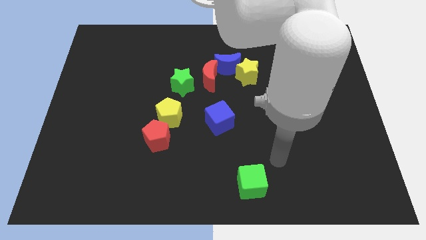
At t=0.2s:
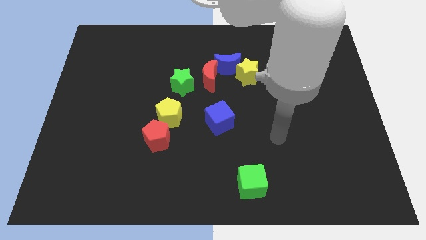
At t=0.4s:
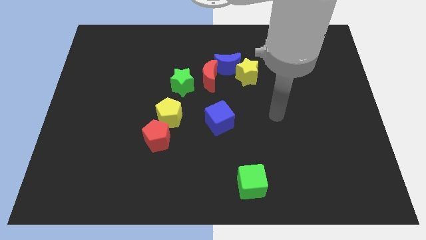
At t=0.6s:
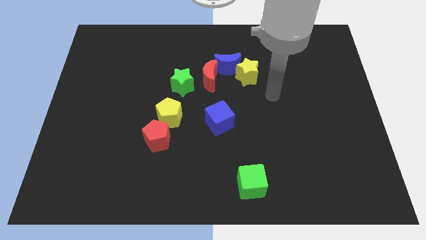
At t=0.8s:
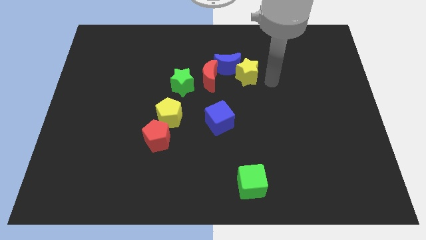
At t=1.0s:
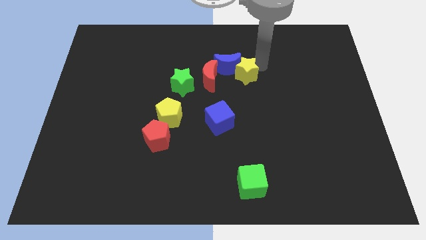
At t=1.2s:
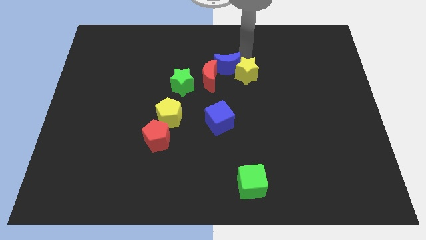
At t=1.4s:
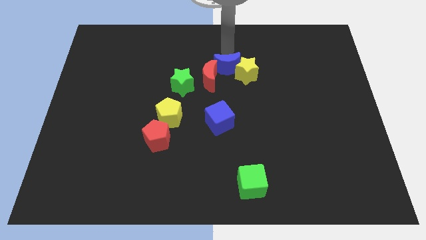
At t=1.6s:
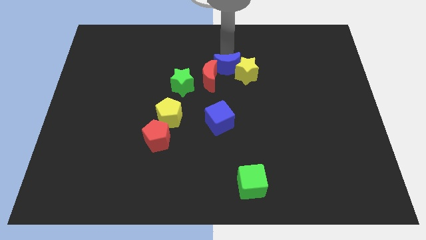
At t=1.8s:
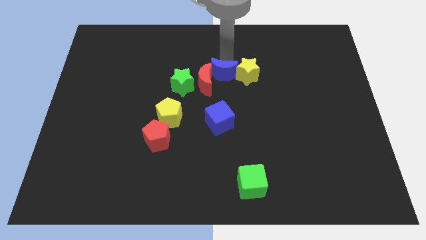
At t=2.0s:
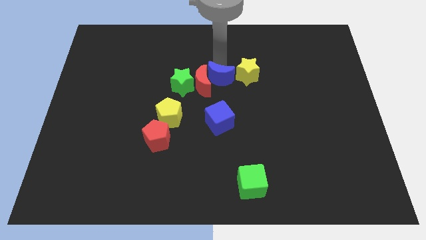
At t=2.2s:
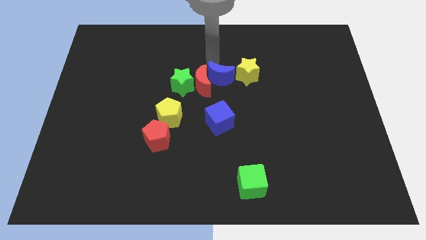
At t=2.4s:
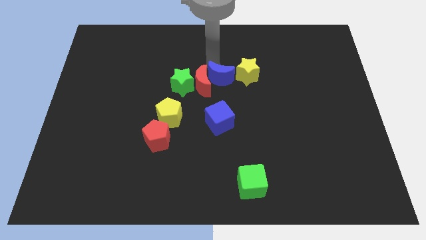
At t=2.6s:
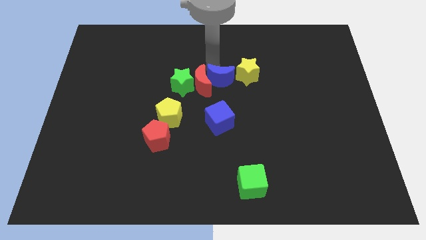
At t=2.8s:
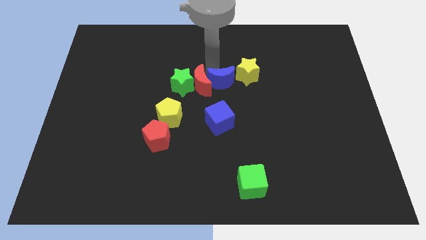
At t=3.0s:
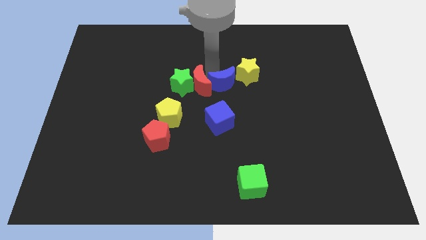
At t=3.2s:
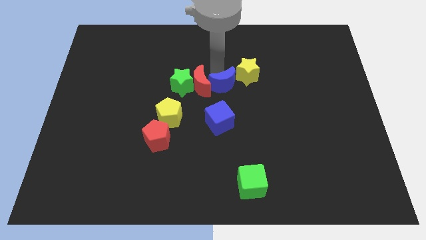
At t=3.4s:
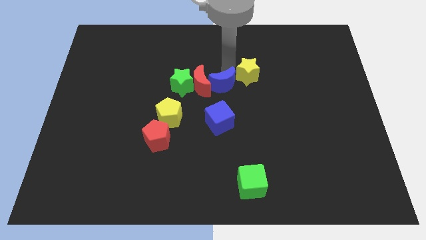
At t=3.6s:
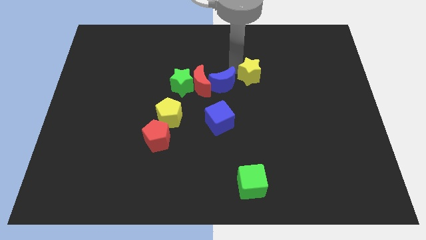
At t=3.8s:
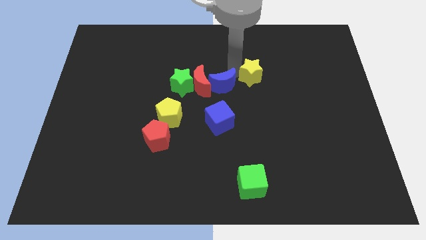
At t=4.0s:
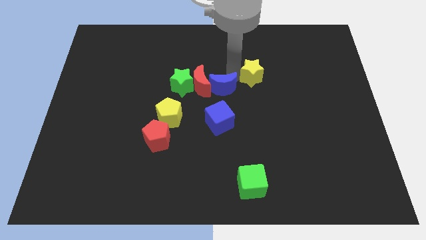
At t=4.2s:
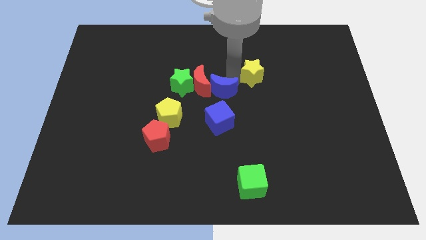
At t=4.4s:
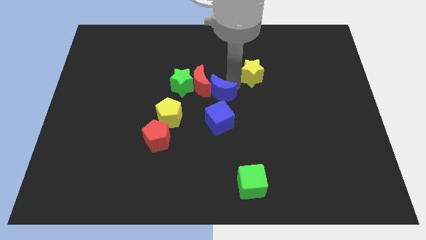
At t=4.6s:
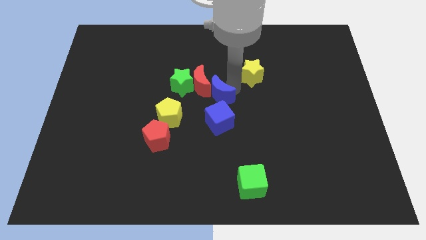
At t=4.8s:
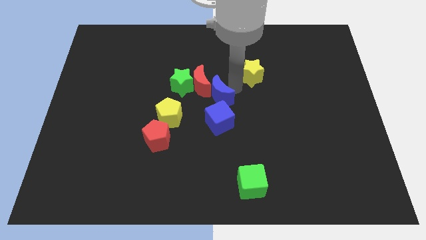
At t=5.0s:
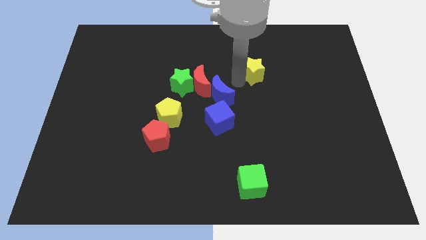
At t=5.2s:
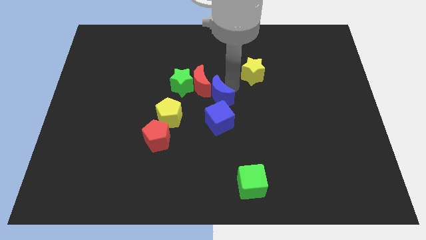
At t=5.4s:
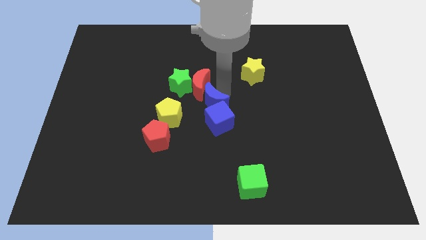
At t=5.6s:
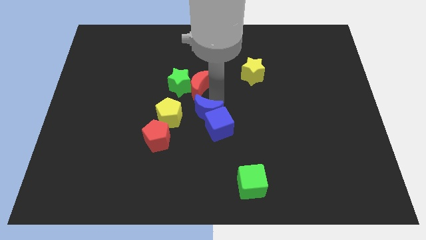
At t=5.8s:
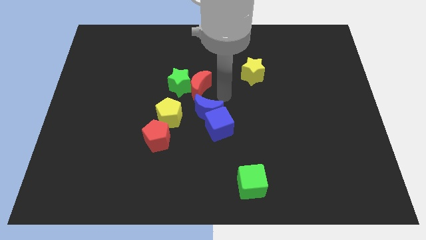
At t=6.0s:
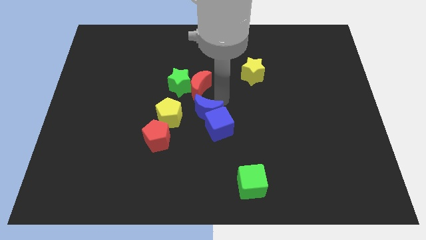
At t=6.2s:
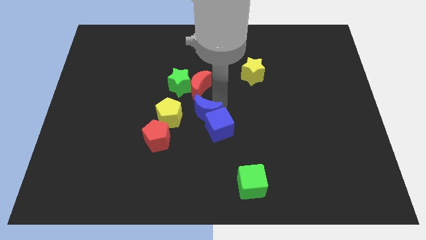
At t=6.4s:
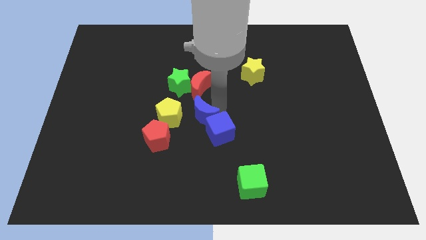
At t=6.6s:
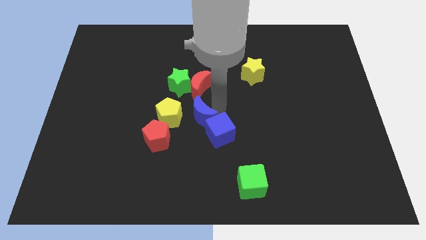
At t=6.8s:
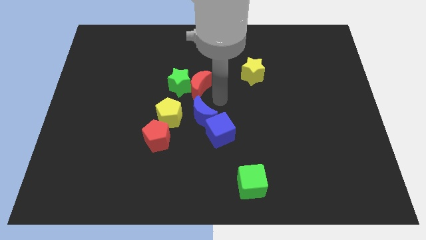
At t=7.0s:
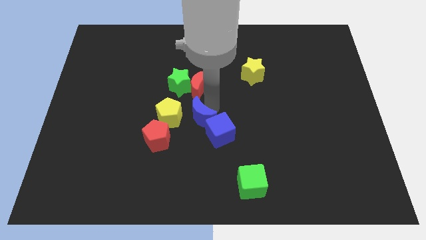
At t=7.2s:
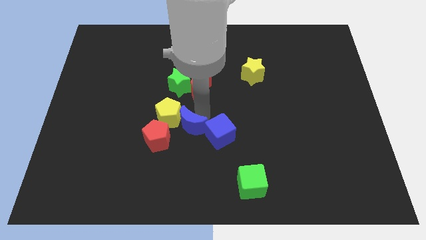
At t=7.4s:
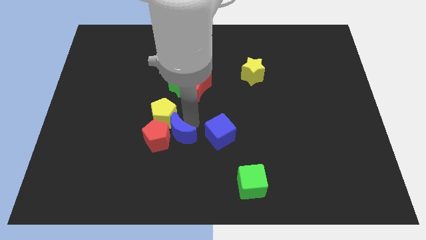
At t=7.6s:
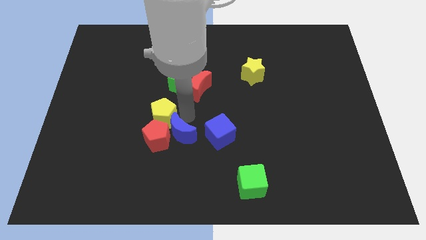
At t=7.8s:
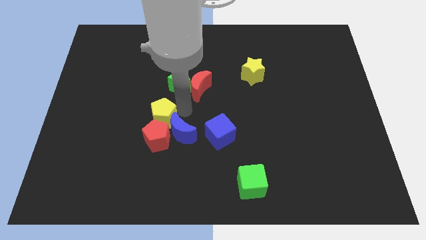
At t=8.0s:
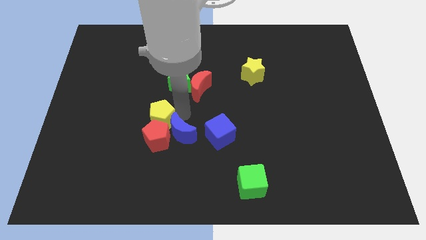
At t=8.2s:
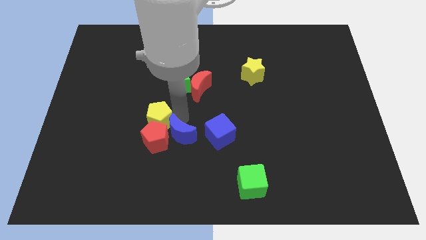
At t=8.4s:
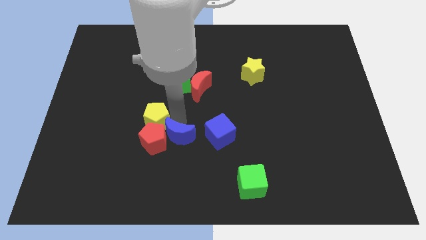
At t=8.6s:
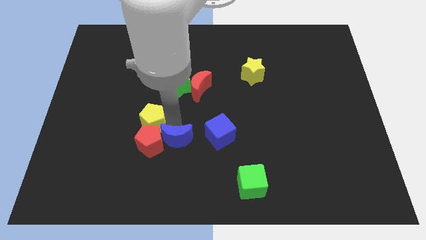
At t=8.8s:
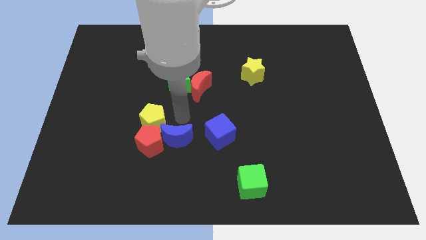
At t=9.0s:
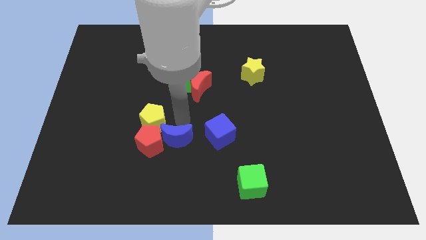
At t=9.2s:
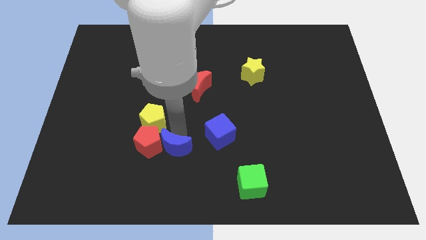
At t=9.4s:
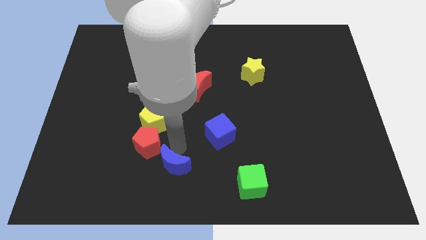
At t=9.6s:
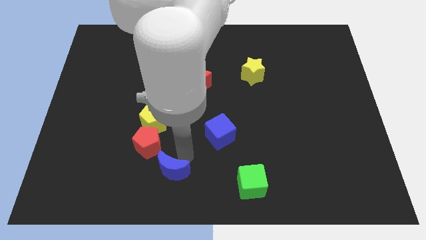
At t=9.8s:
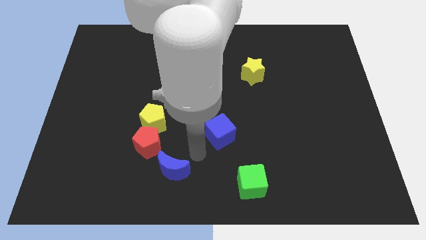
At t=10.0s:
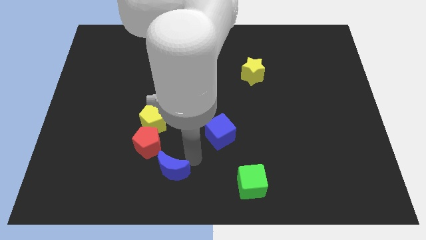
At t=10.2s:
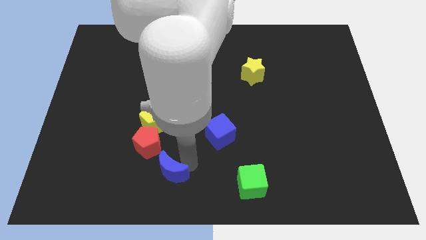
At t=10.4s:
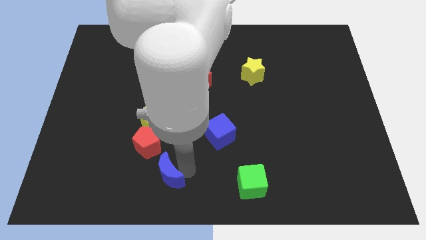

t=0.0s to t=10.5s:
slide the blue moon to the bottom of the red pentagon

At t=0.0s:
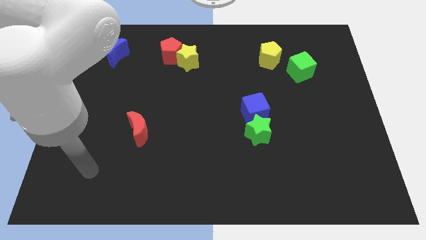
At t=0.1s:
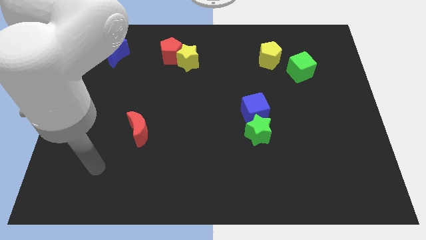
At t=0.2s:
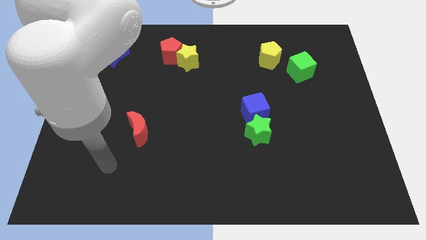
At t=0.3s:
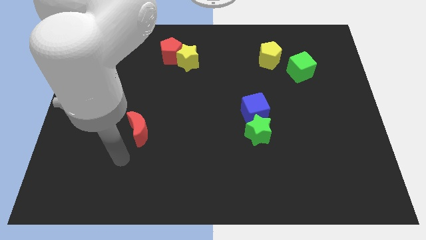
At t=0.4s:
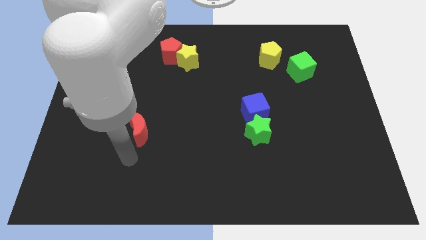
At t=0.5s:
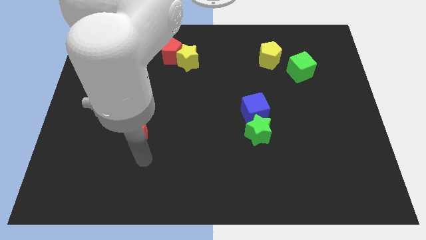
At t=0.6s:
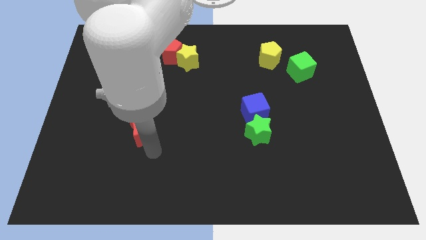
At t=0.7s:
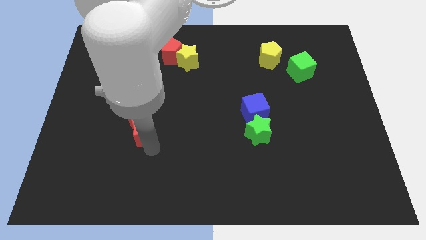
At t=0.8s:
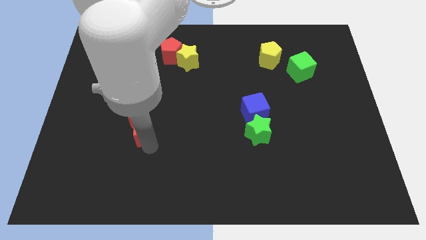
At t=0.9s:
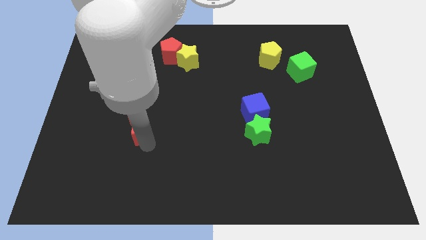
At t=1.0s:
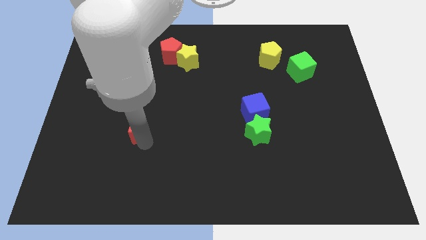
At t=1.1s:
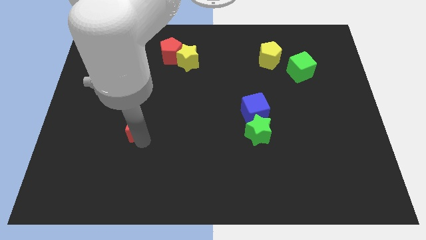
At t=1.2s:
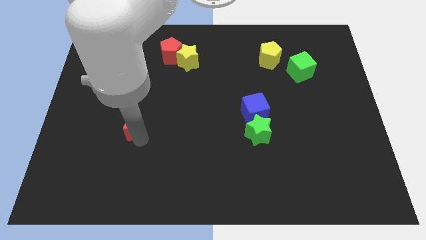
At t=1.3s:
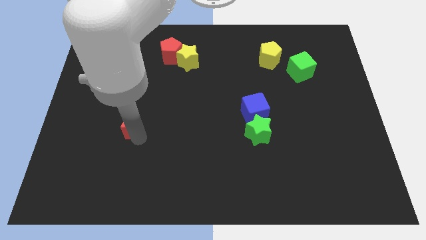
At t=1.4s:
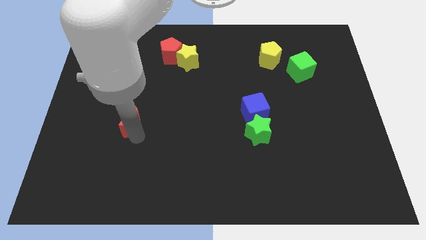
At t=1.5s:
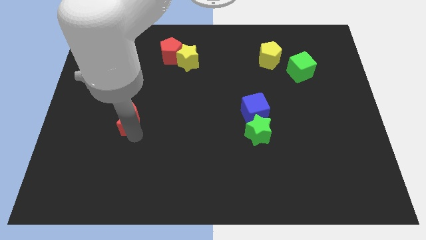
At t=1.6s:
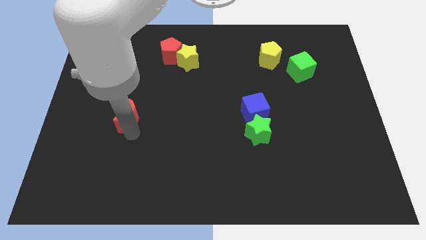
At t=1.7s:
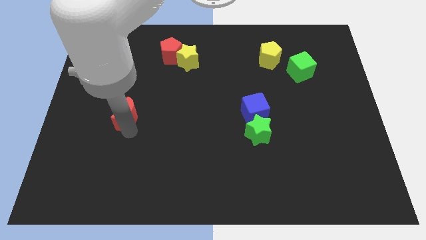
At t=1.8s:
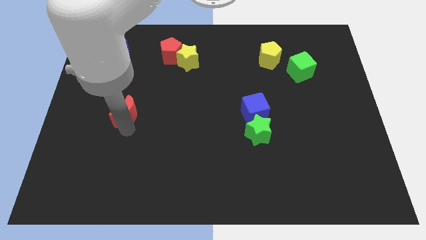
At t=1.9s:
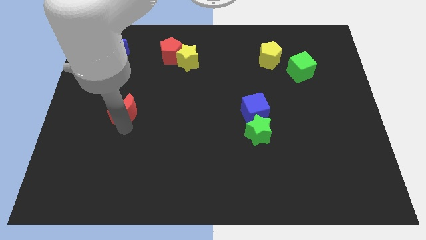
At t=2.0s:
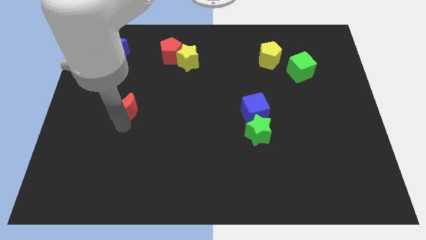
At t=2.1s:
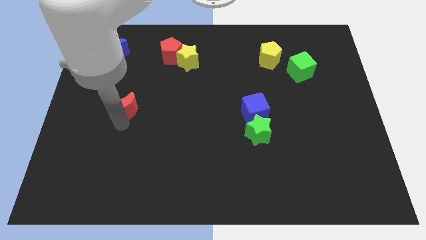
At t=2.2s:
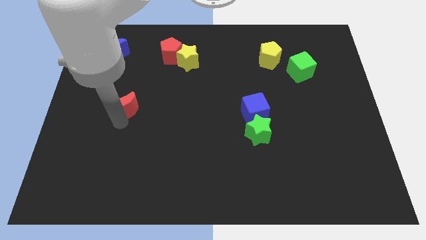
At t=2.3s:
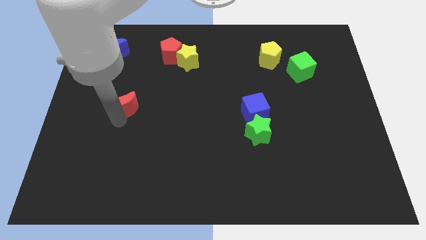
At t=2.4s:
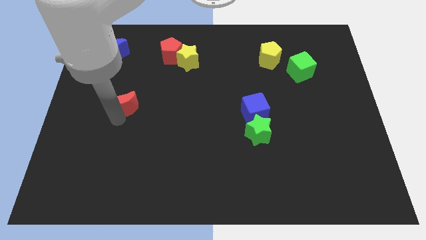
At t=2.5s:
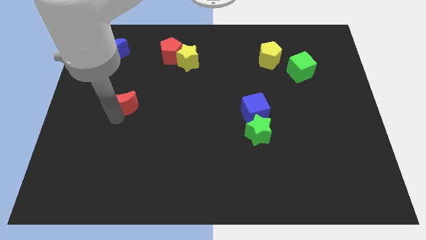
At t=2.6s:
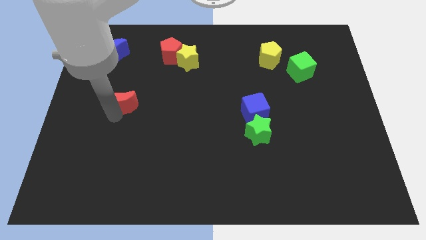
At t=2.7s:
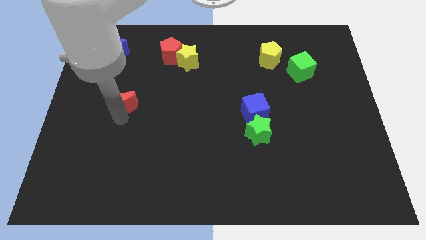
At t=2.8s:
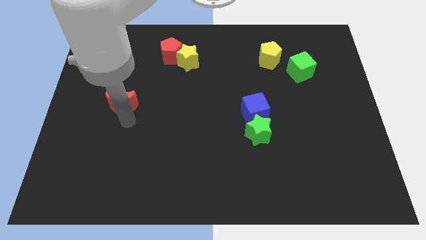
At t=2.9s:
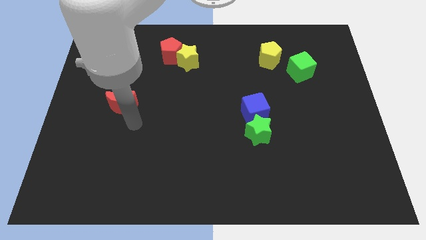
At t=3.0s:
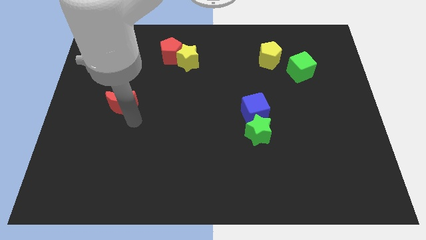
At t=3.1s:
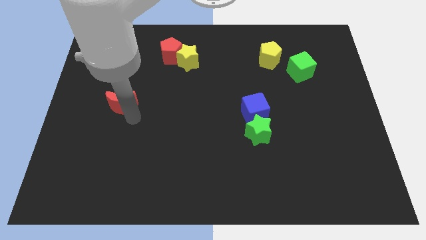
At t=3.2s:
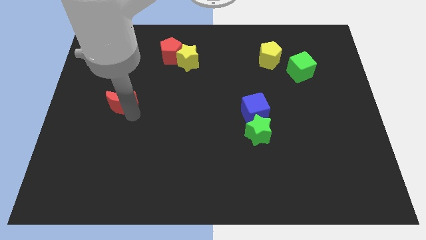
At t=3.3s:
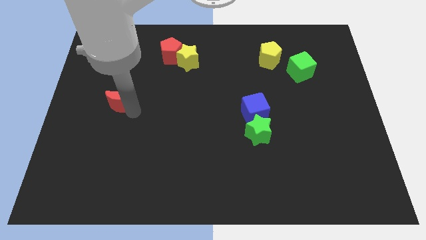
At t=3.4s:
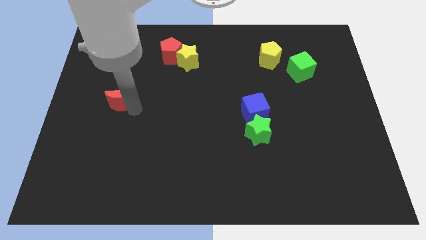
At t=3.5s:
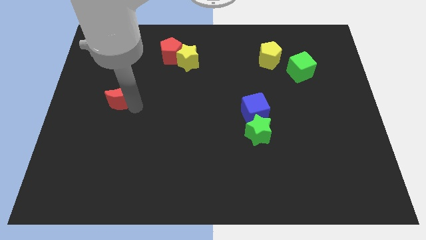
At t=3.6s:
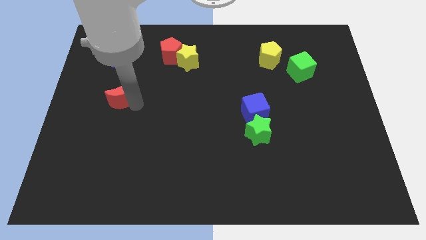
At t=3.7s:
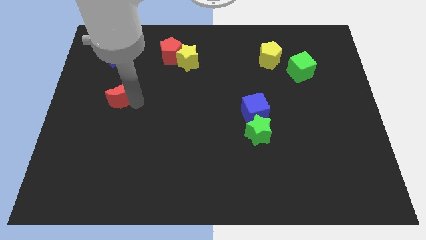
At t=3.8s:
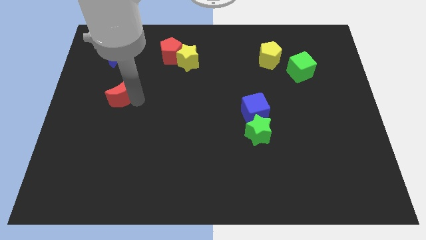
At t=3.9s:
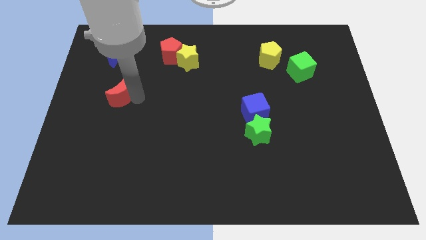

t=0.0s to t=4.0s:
slide the red moon below the blue moon
